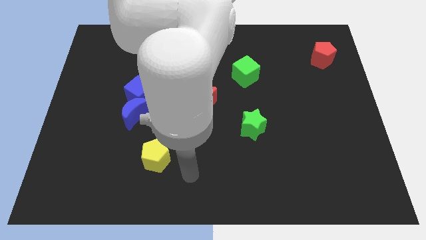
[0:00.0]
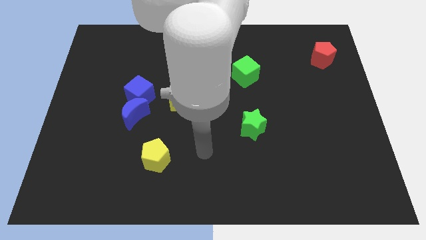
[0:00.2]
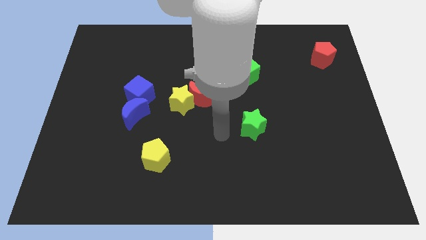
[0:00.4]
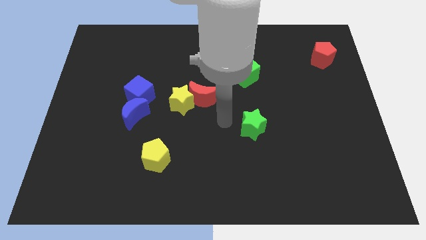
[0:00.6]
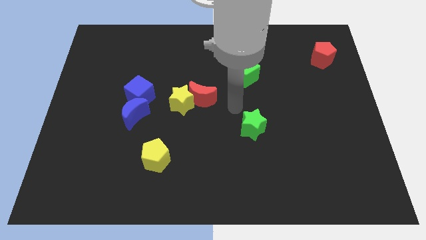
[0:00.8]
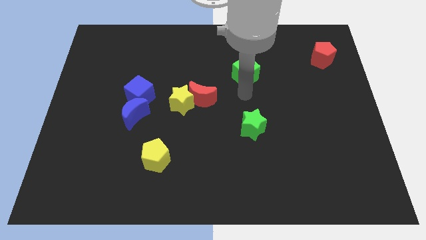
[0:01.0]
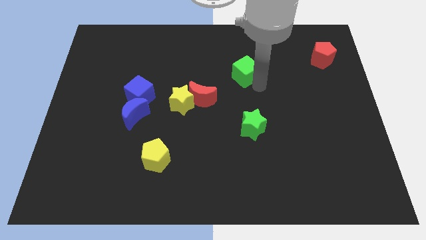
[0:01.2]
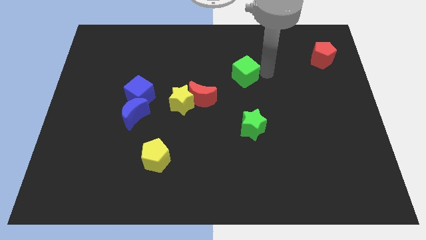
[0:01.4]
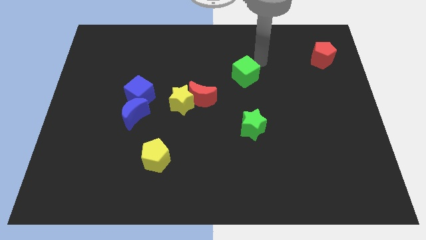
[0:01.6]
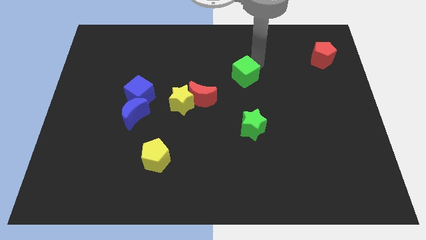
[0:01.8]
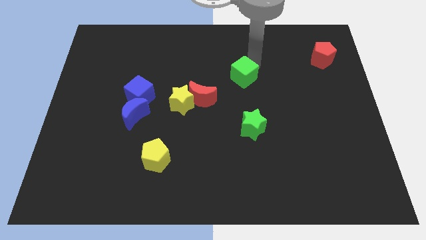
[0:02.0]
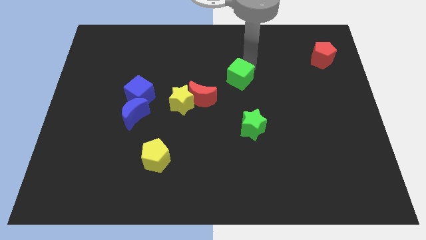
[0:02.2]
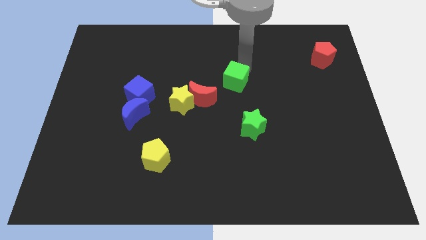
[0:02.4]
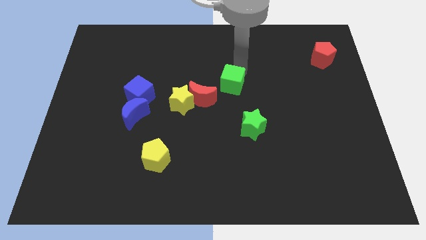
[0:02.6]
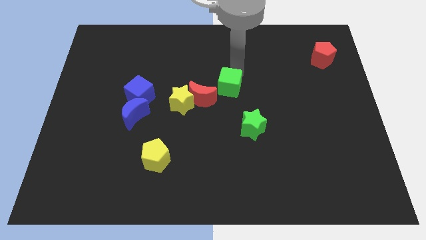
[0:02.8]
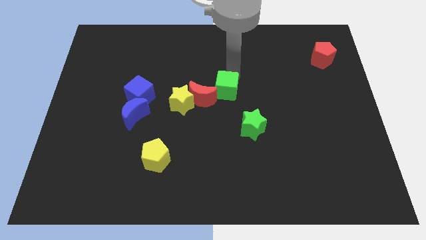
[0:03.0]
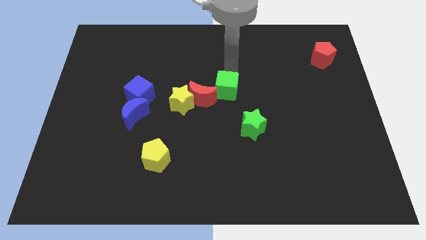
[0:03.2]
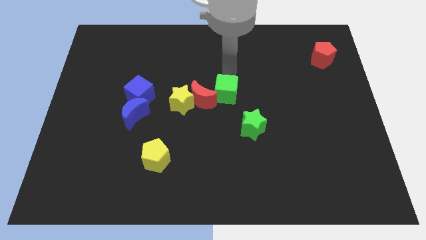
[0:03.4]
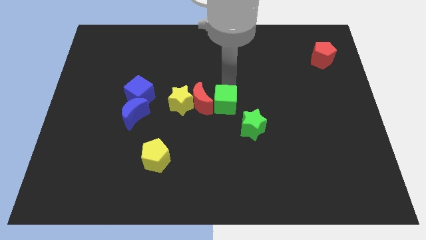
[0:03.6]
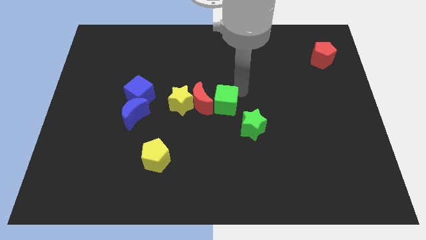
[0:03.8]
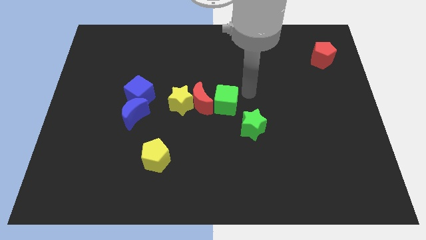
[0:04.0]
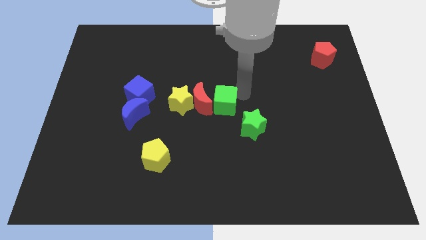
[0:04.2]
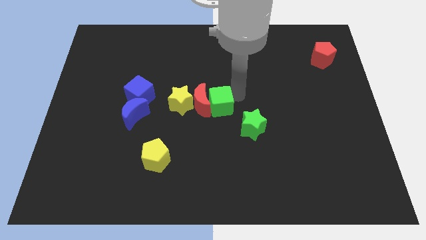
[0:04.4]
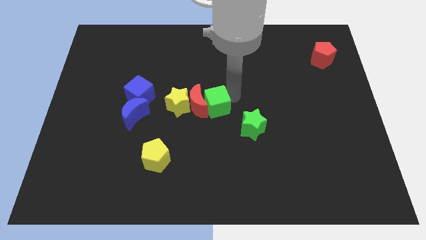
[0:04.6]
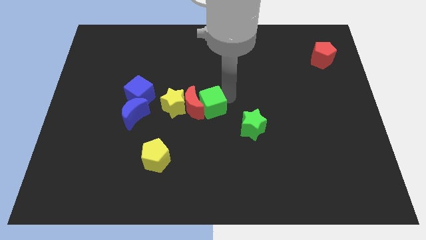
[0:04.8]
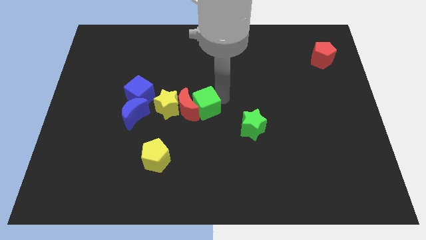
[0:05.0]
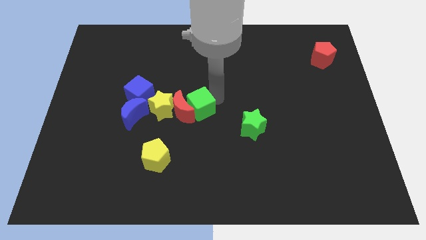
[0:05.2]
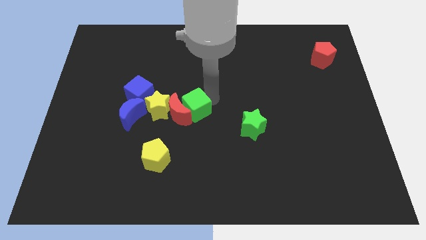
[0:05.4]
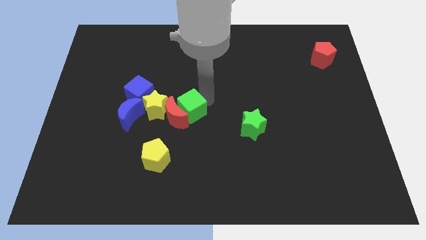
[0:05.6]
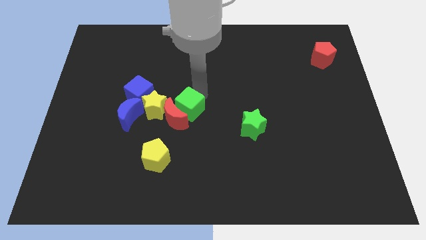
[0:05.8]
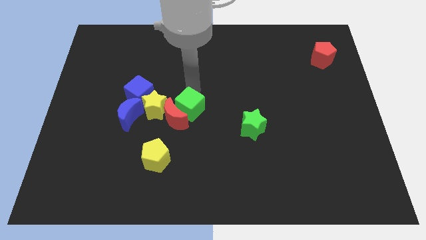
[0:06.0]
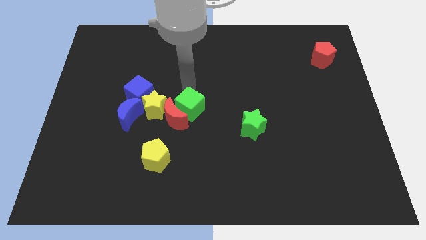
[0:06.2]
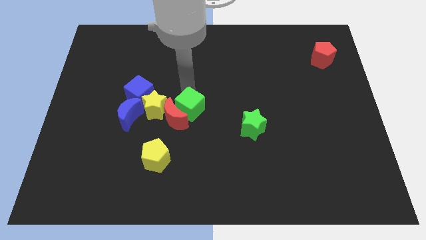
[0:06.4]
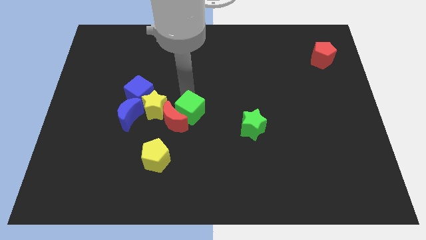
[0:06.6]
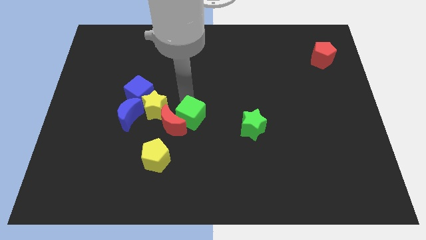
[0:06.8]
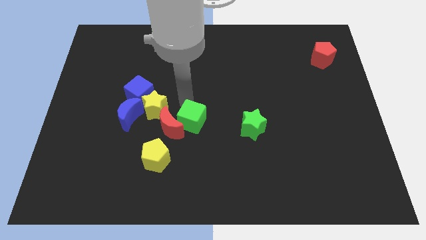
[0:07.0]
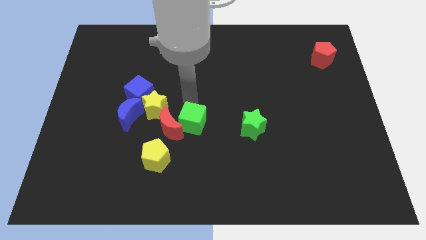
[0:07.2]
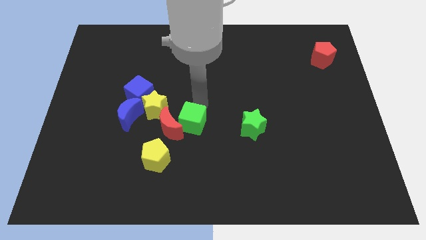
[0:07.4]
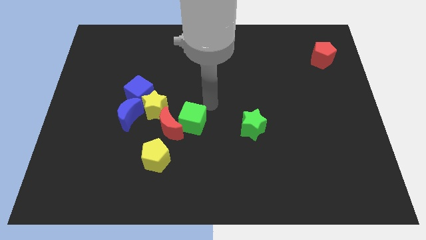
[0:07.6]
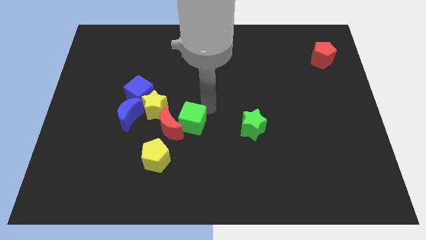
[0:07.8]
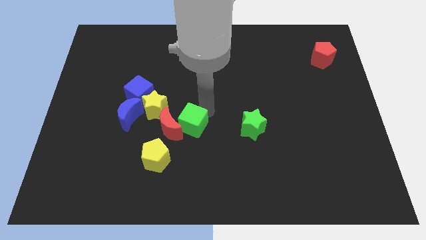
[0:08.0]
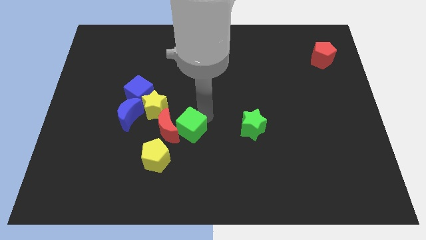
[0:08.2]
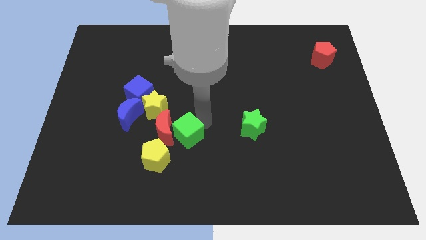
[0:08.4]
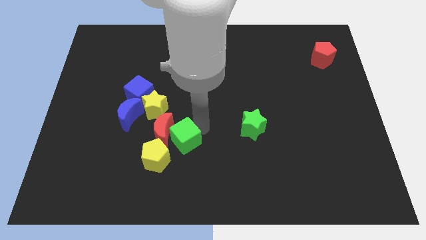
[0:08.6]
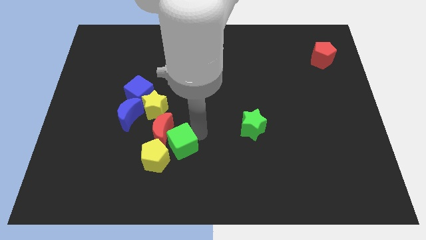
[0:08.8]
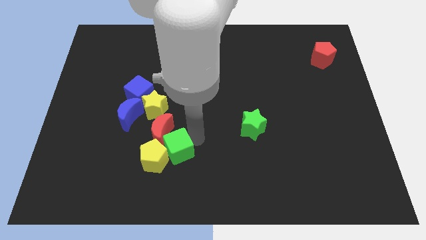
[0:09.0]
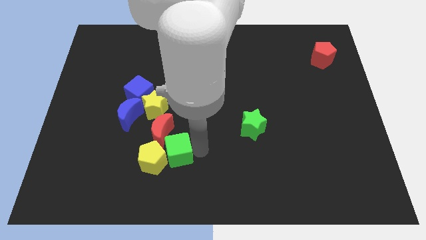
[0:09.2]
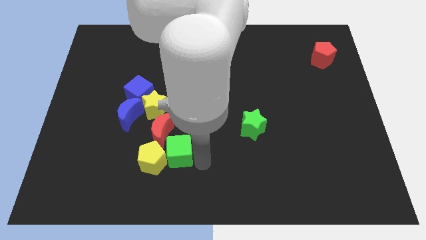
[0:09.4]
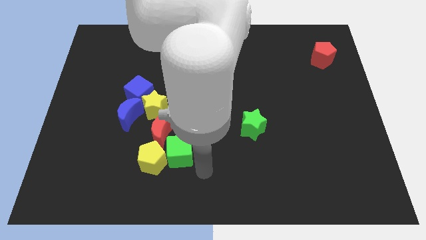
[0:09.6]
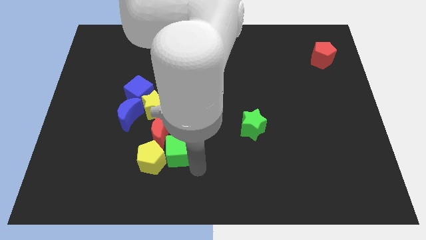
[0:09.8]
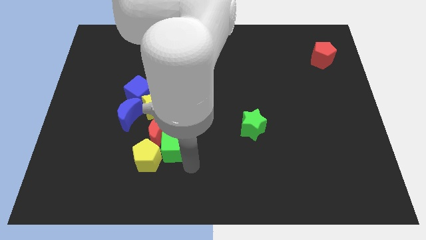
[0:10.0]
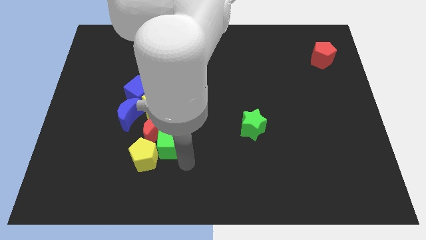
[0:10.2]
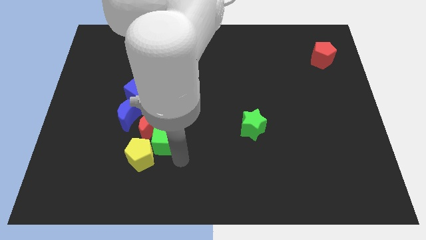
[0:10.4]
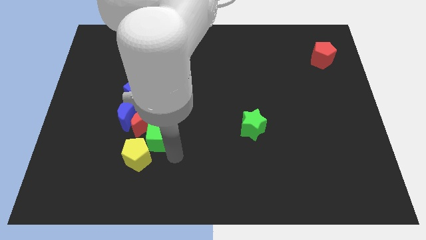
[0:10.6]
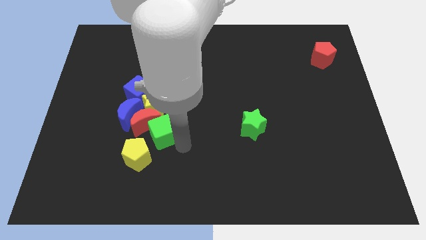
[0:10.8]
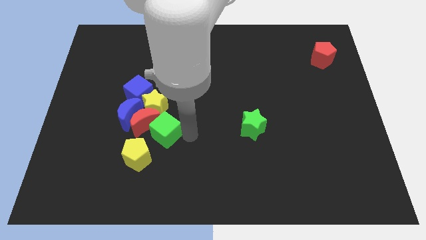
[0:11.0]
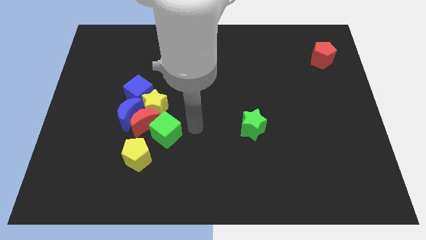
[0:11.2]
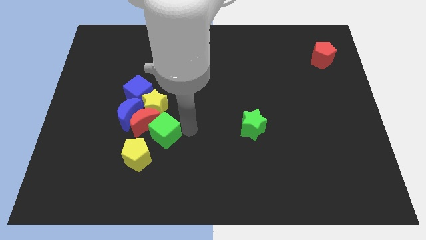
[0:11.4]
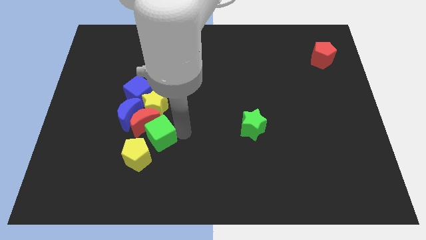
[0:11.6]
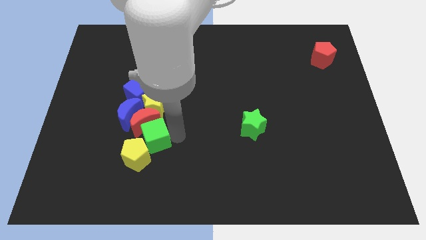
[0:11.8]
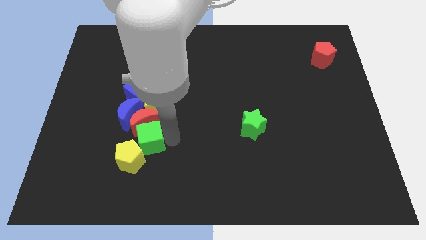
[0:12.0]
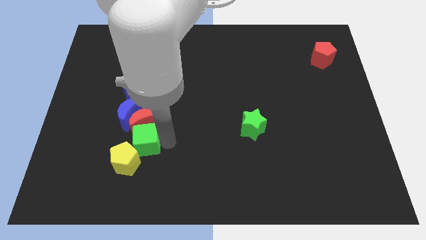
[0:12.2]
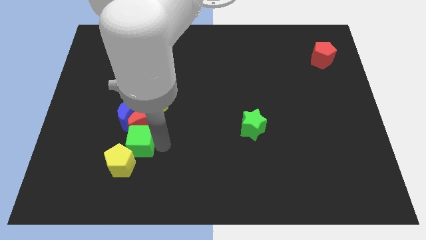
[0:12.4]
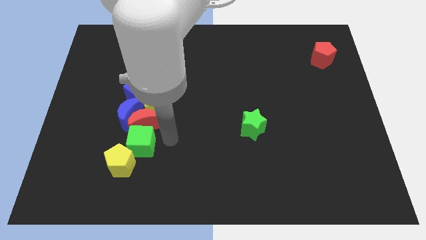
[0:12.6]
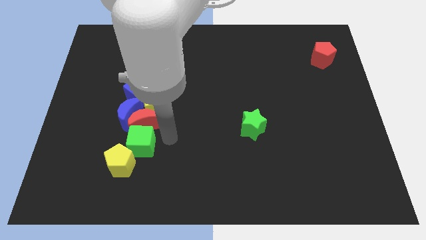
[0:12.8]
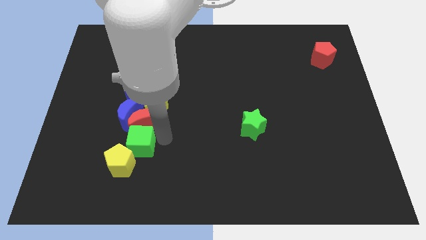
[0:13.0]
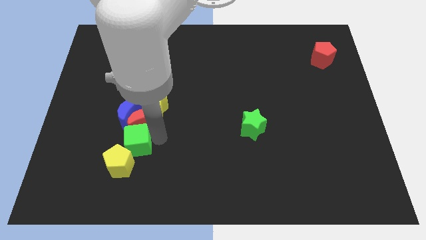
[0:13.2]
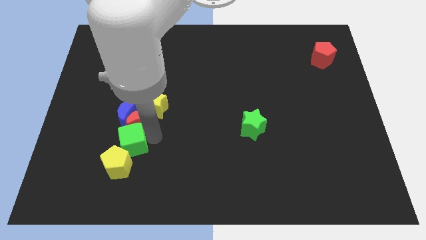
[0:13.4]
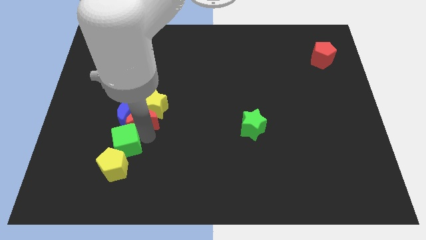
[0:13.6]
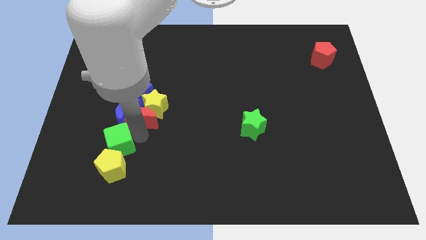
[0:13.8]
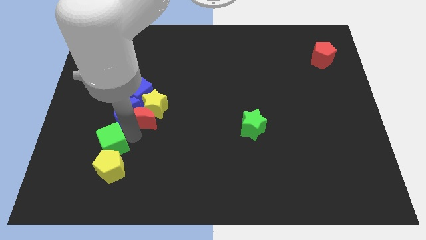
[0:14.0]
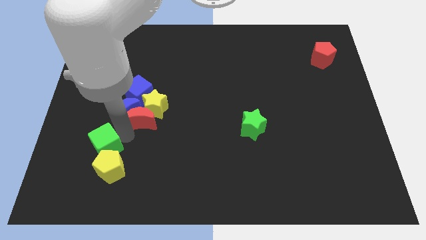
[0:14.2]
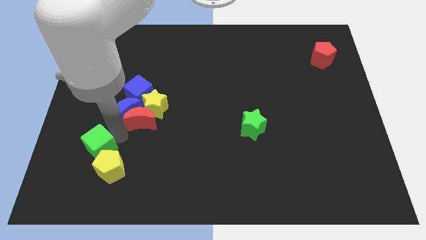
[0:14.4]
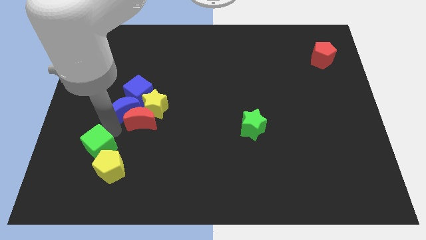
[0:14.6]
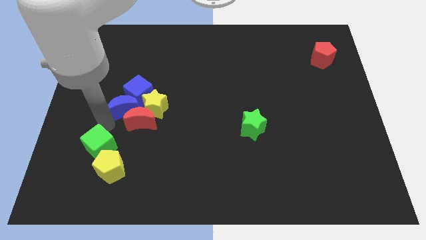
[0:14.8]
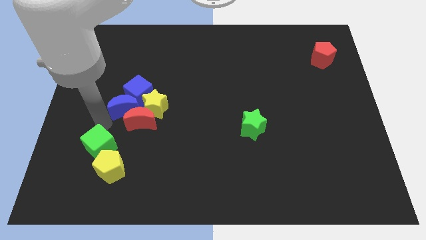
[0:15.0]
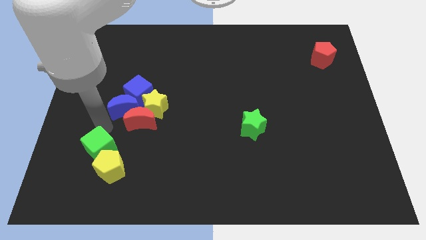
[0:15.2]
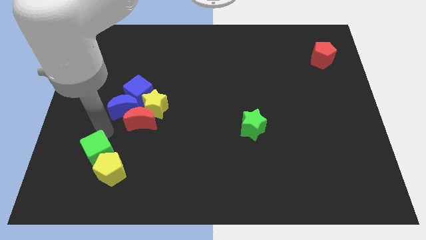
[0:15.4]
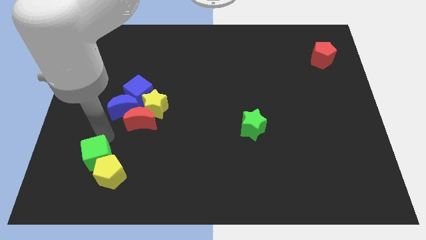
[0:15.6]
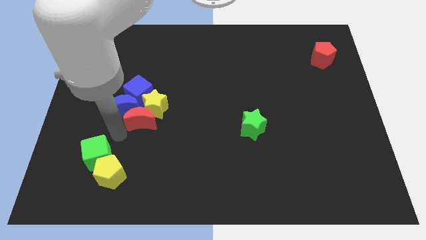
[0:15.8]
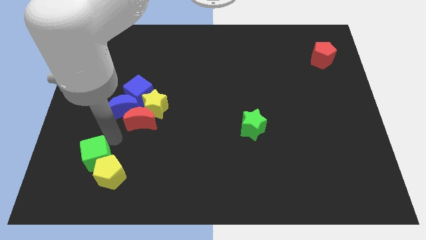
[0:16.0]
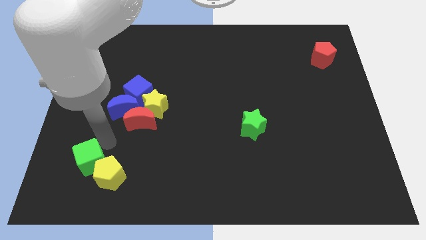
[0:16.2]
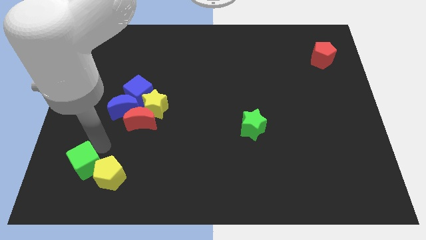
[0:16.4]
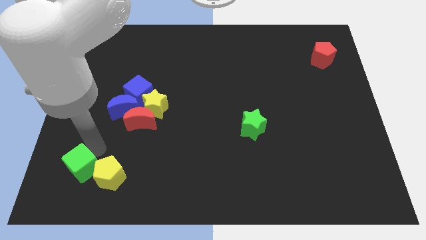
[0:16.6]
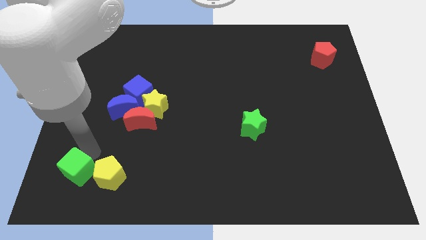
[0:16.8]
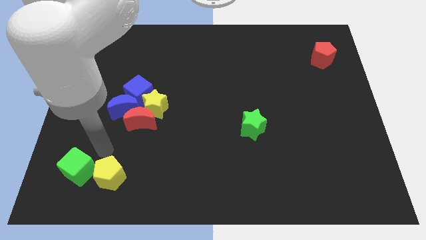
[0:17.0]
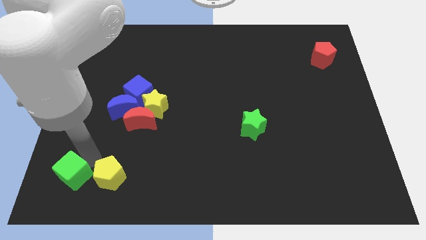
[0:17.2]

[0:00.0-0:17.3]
push the green cube to the bottom left of the board
